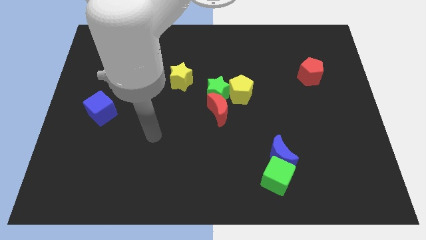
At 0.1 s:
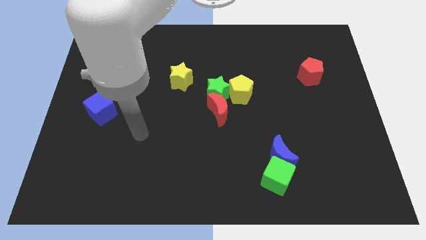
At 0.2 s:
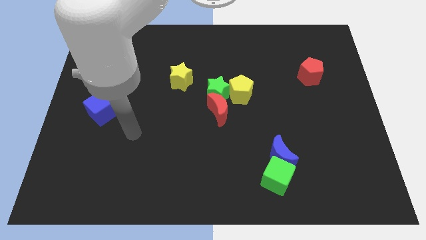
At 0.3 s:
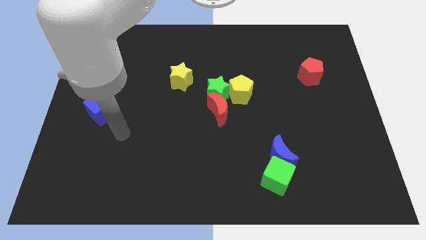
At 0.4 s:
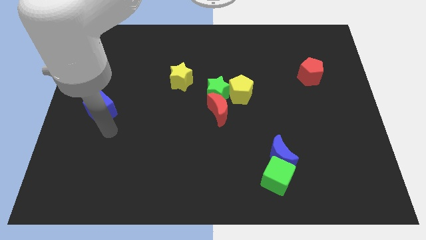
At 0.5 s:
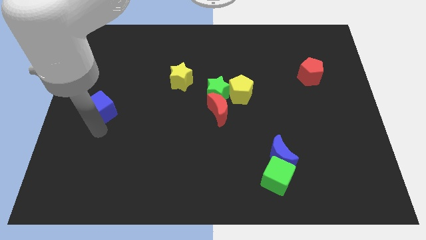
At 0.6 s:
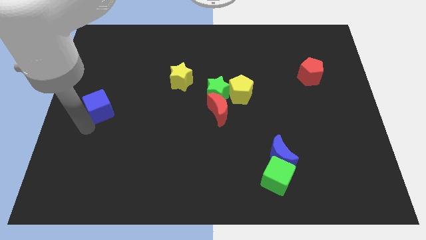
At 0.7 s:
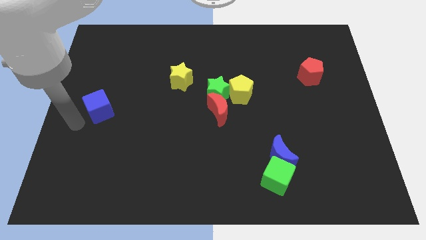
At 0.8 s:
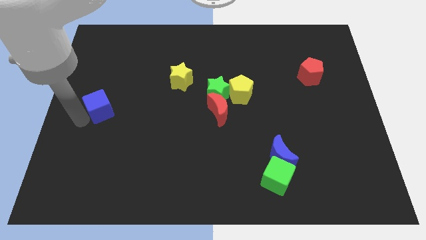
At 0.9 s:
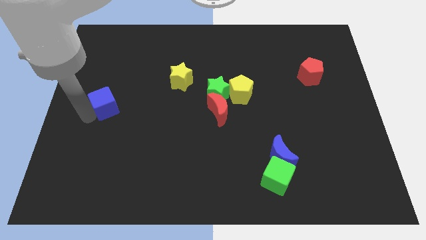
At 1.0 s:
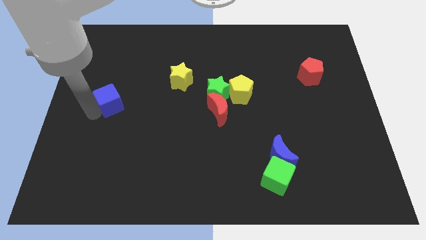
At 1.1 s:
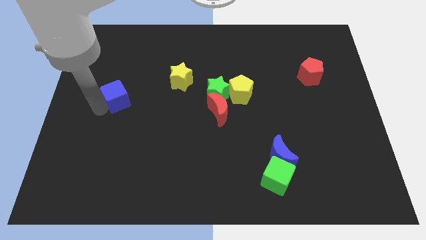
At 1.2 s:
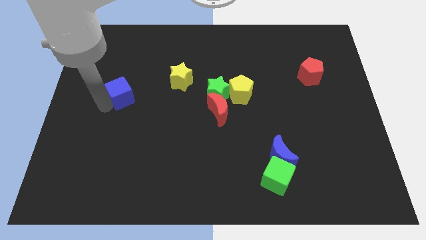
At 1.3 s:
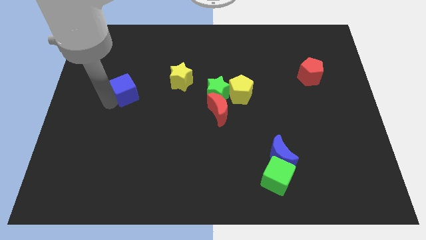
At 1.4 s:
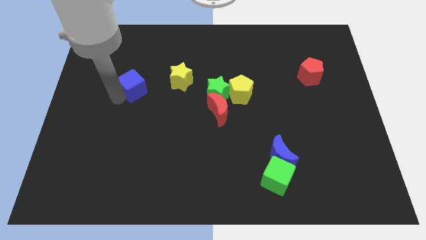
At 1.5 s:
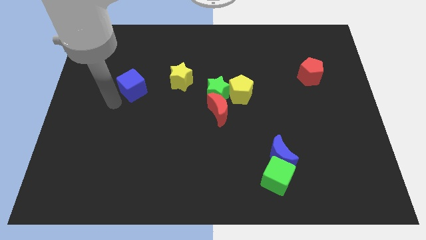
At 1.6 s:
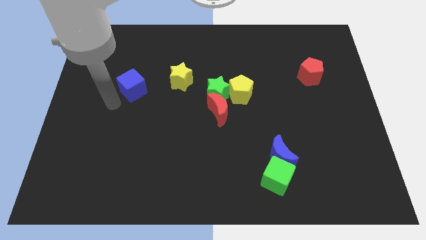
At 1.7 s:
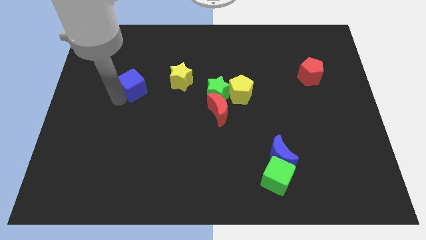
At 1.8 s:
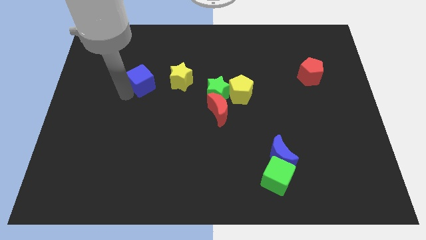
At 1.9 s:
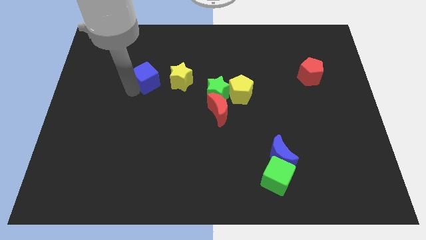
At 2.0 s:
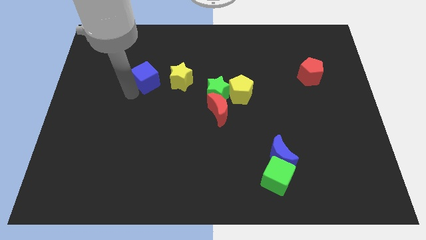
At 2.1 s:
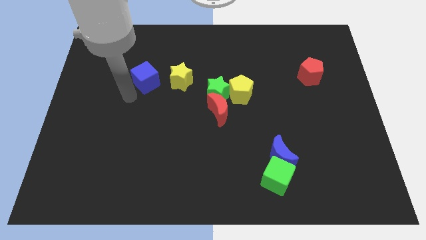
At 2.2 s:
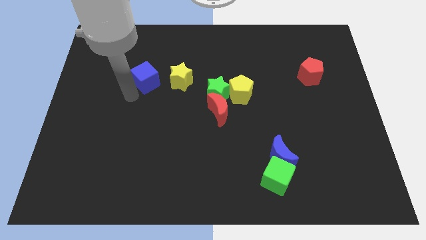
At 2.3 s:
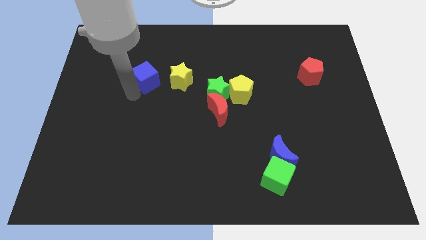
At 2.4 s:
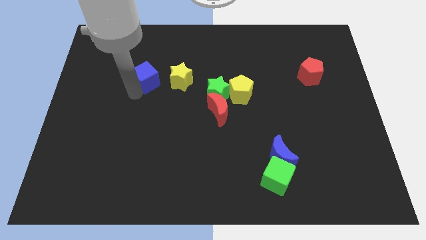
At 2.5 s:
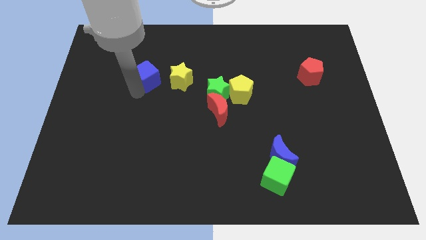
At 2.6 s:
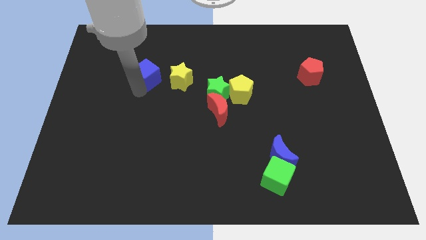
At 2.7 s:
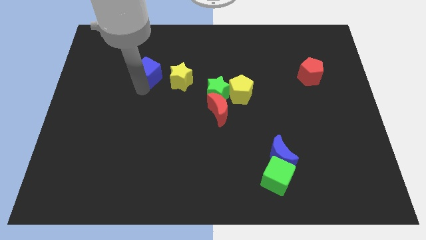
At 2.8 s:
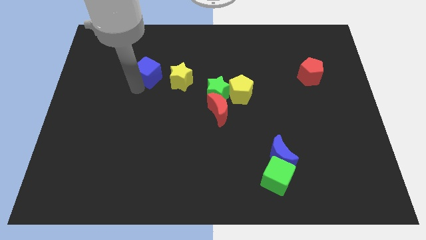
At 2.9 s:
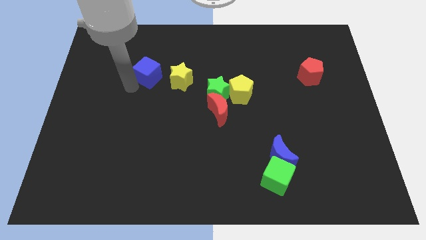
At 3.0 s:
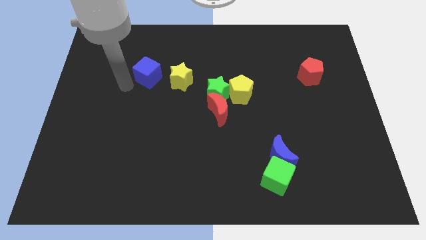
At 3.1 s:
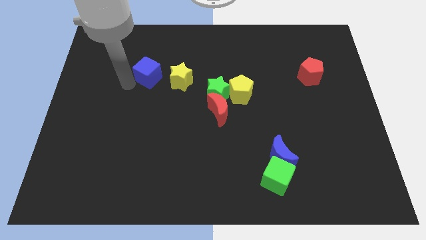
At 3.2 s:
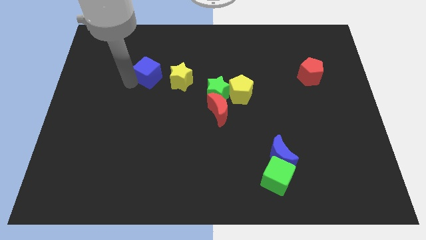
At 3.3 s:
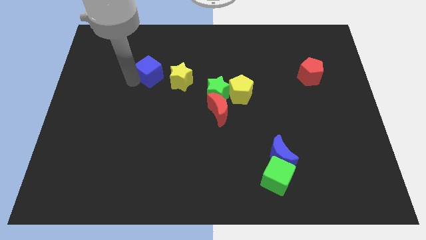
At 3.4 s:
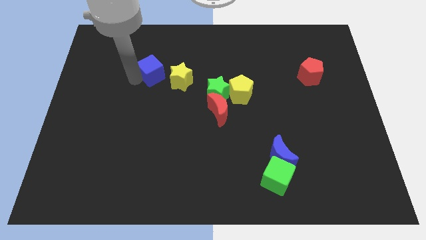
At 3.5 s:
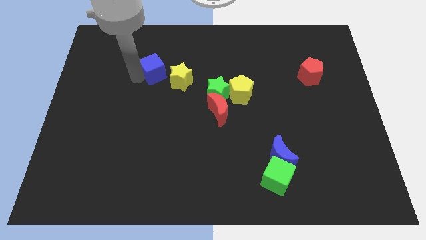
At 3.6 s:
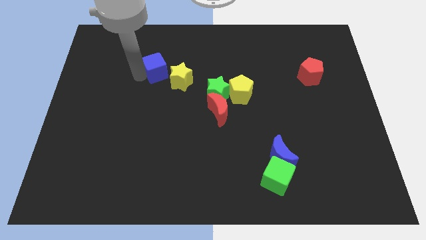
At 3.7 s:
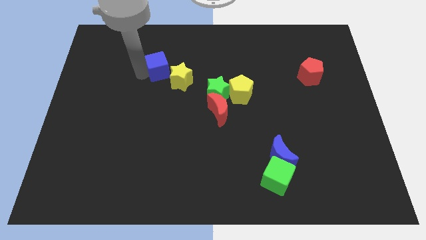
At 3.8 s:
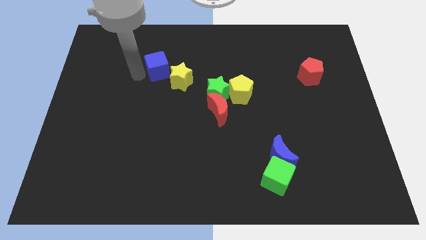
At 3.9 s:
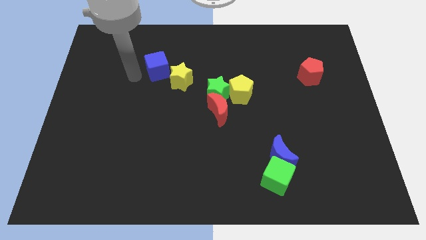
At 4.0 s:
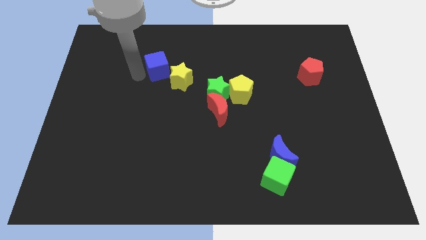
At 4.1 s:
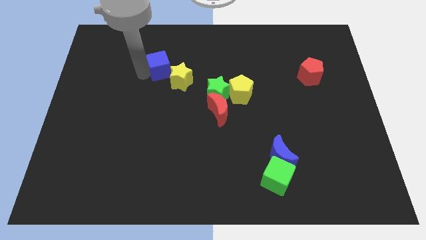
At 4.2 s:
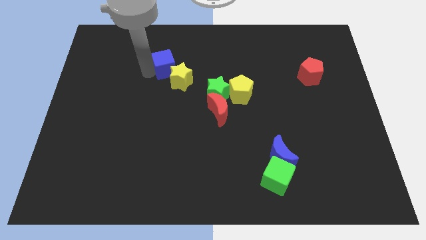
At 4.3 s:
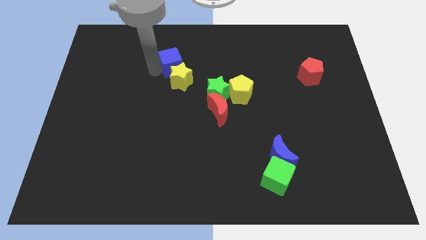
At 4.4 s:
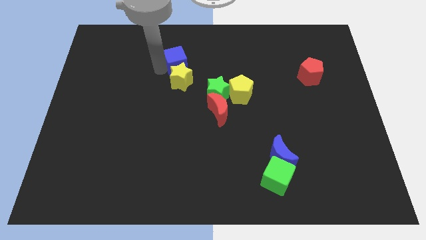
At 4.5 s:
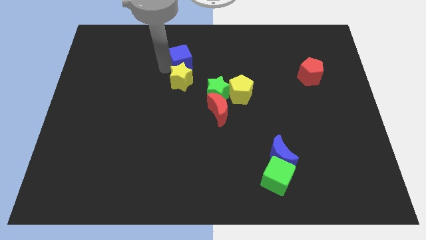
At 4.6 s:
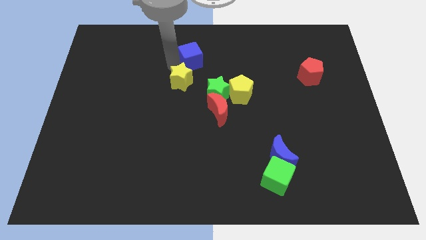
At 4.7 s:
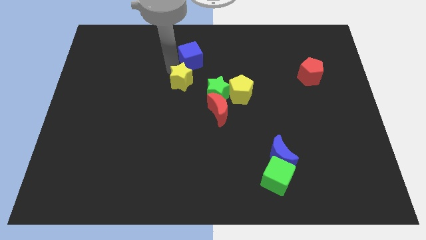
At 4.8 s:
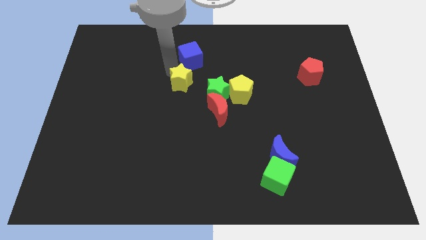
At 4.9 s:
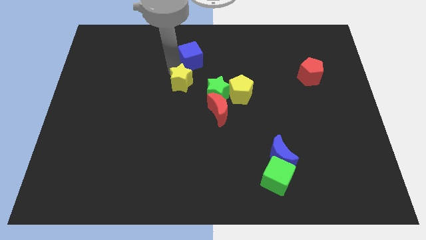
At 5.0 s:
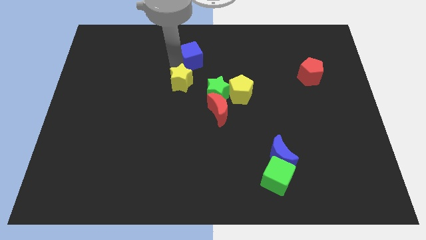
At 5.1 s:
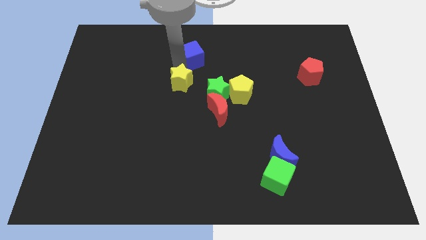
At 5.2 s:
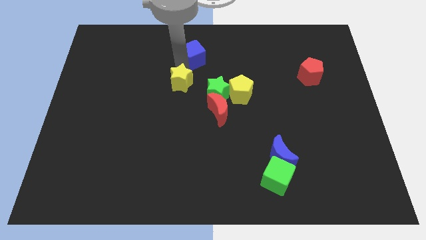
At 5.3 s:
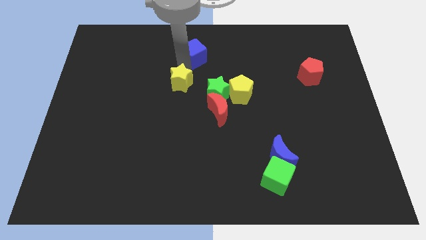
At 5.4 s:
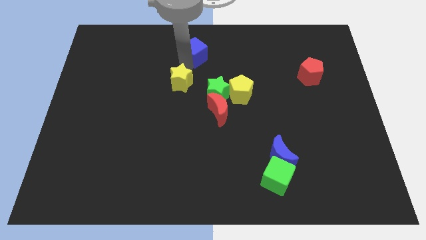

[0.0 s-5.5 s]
push the blue cube to the towards your base
